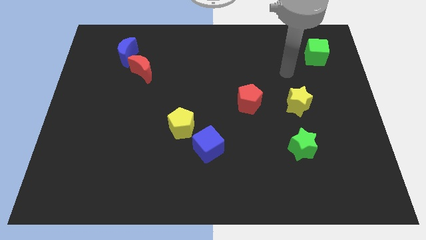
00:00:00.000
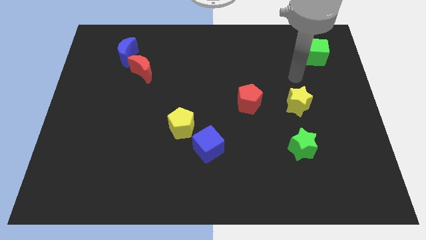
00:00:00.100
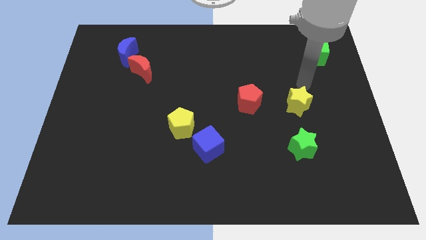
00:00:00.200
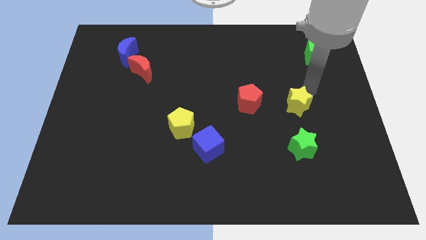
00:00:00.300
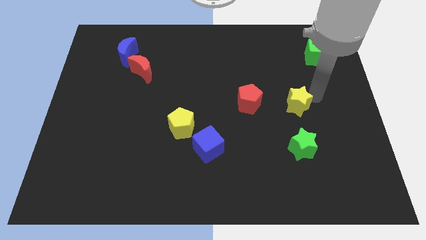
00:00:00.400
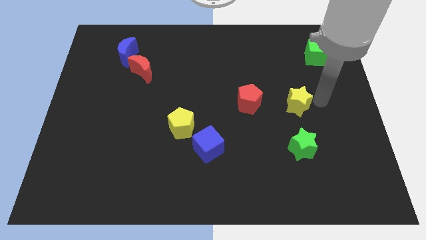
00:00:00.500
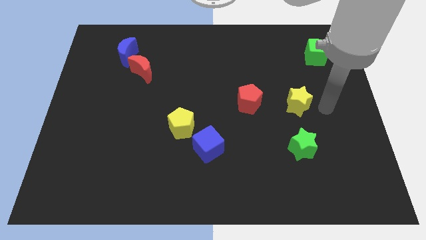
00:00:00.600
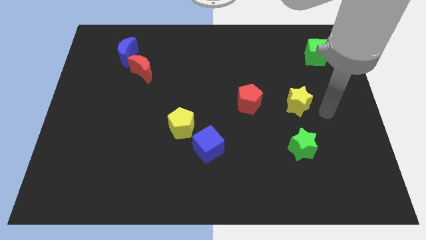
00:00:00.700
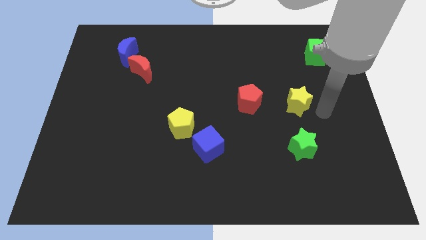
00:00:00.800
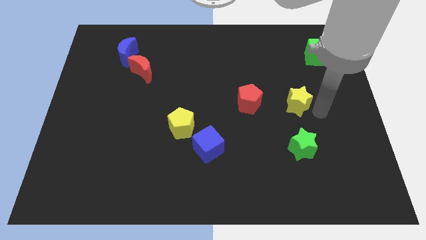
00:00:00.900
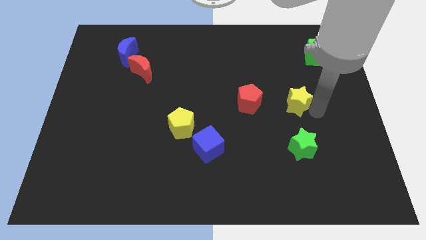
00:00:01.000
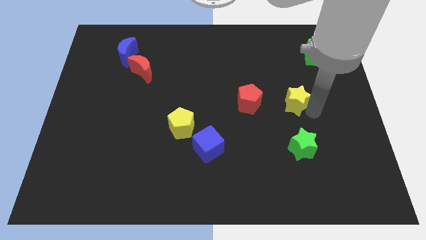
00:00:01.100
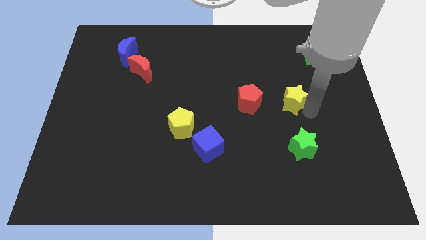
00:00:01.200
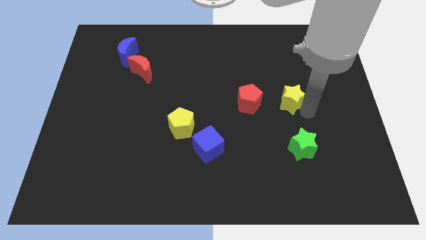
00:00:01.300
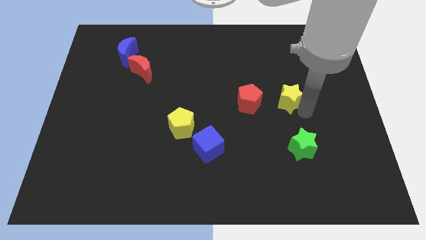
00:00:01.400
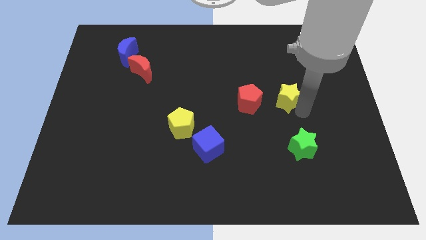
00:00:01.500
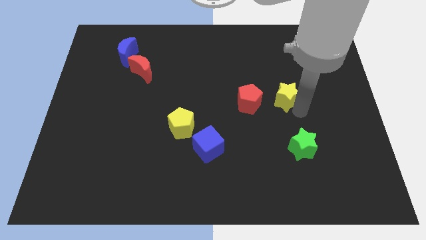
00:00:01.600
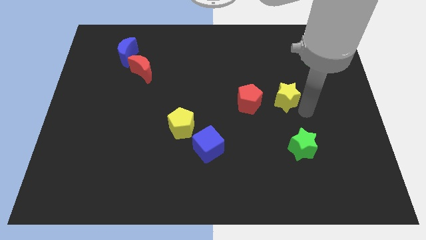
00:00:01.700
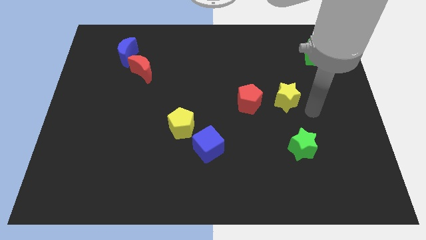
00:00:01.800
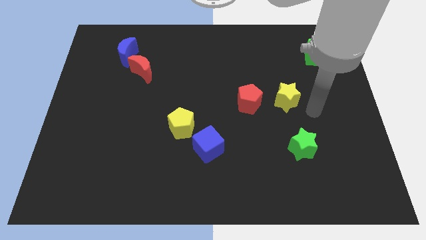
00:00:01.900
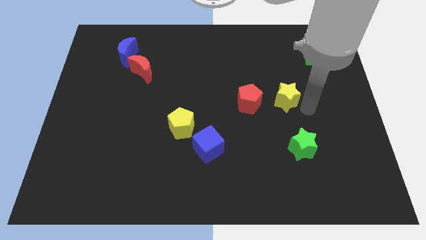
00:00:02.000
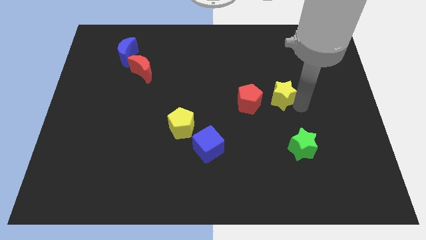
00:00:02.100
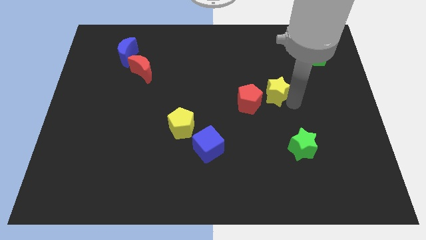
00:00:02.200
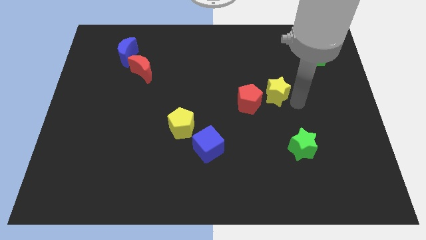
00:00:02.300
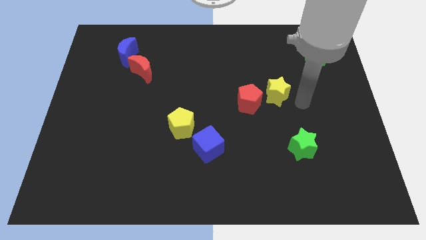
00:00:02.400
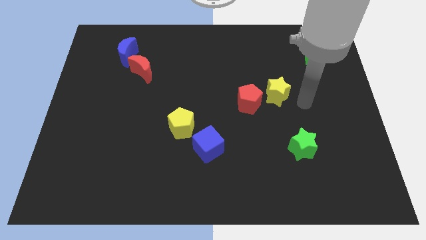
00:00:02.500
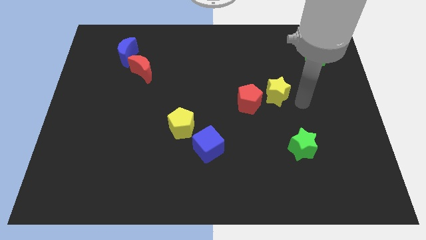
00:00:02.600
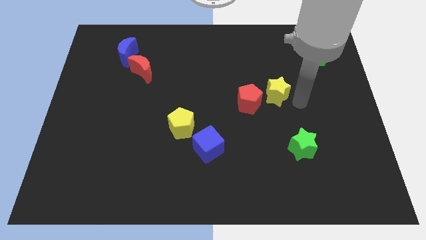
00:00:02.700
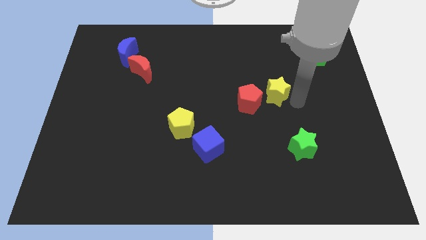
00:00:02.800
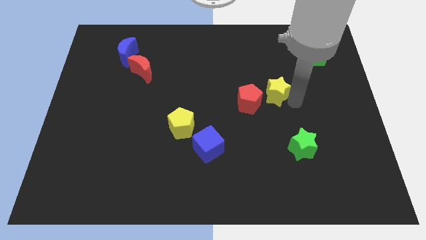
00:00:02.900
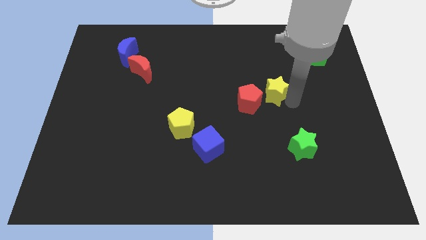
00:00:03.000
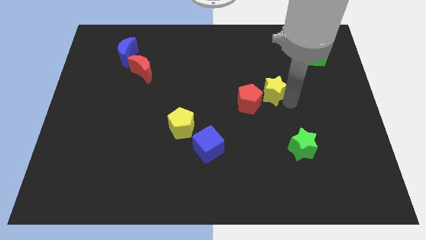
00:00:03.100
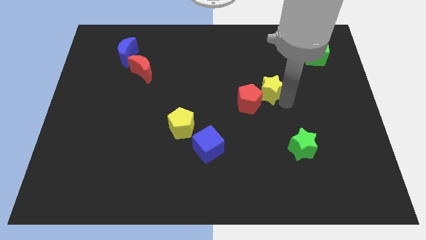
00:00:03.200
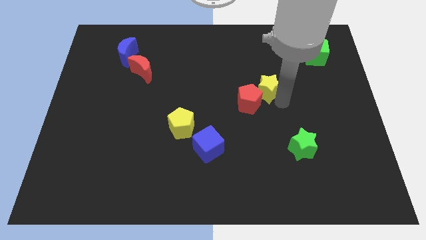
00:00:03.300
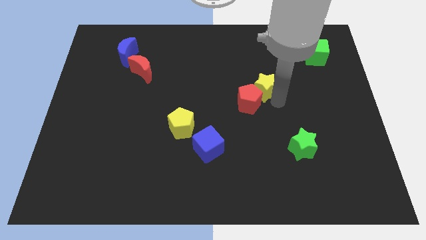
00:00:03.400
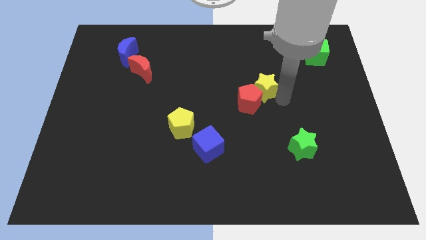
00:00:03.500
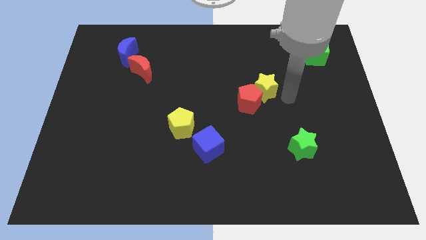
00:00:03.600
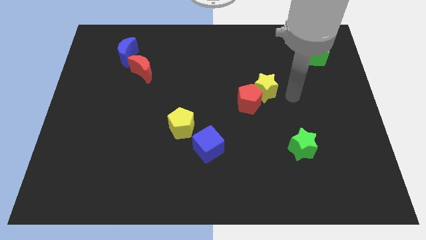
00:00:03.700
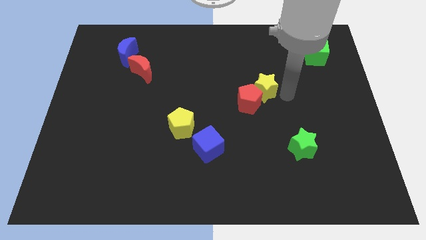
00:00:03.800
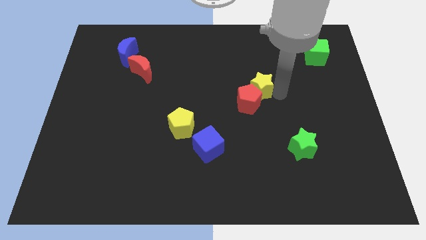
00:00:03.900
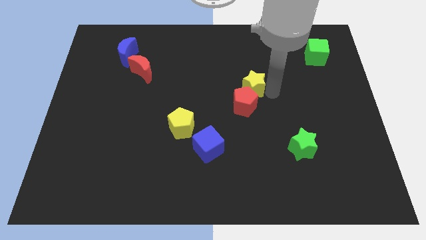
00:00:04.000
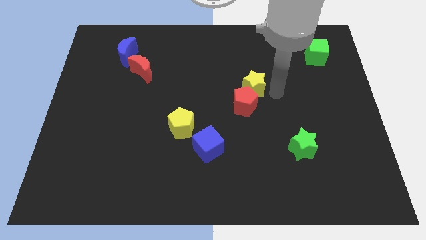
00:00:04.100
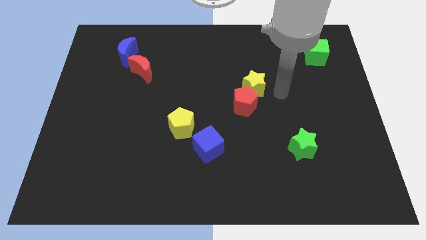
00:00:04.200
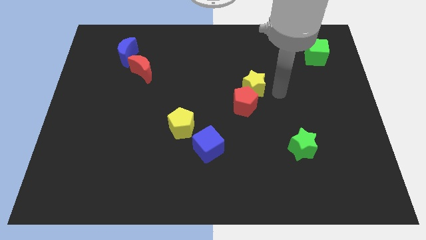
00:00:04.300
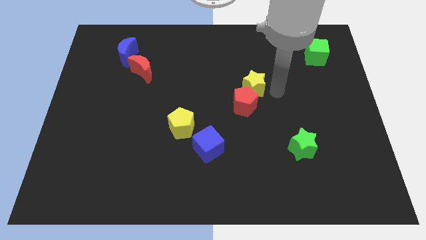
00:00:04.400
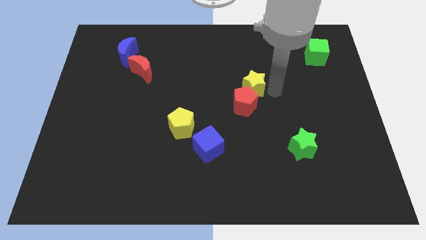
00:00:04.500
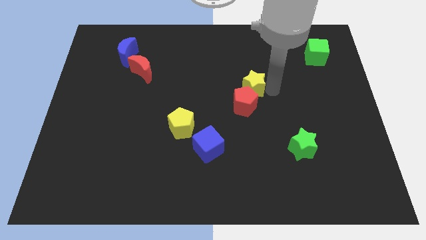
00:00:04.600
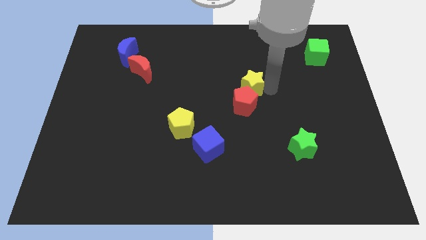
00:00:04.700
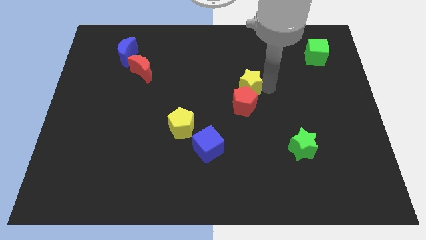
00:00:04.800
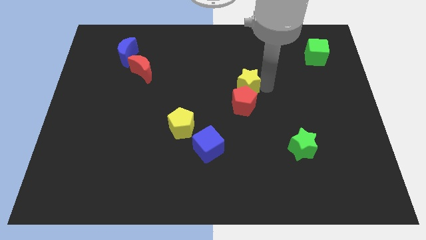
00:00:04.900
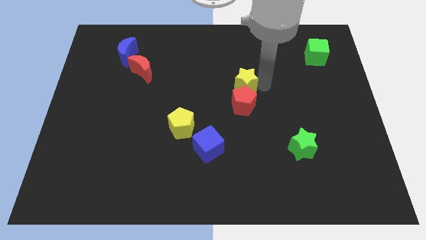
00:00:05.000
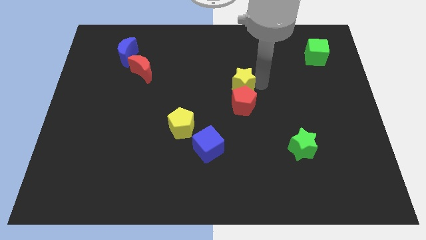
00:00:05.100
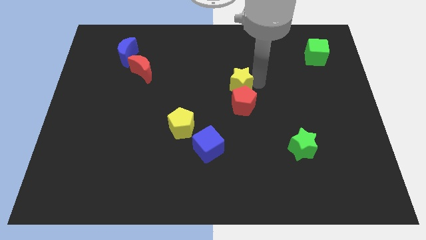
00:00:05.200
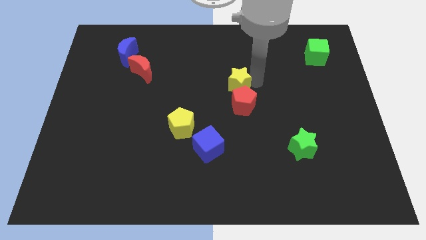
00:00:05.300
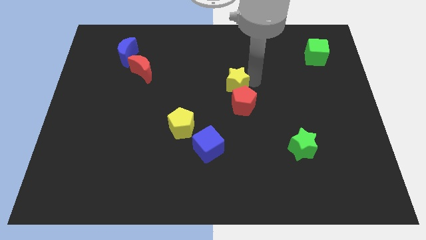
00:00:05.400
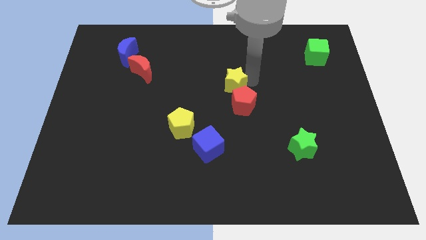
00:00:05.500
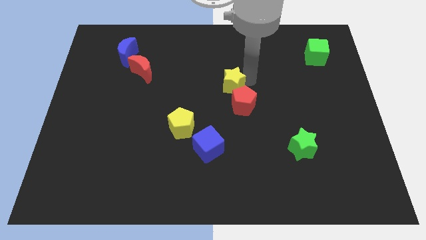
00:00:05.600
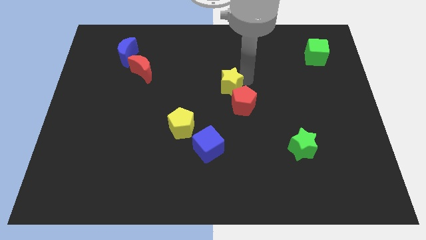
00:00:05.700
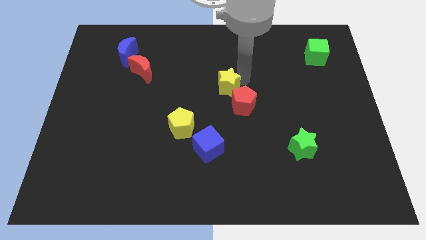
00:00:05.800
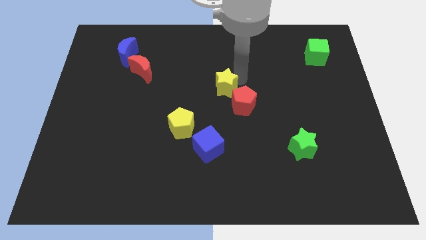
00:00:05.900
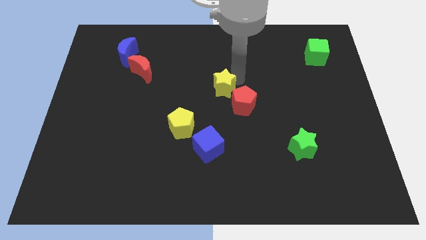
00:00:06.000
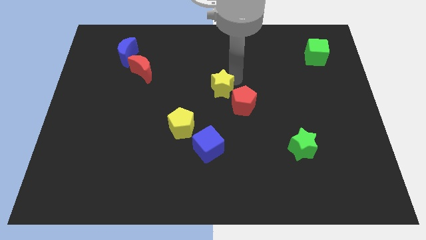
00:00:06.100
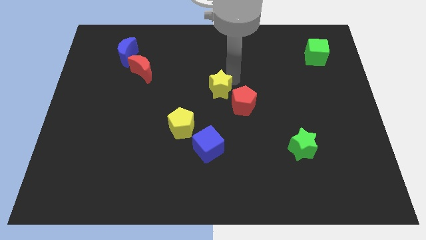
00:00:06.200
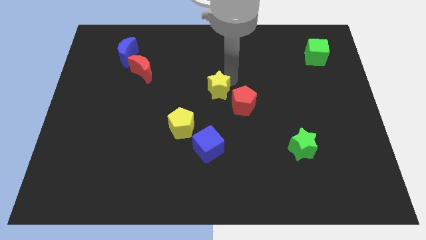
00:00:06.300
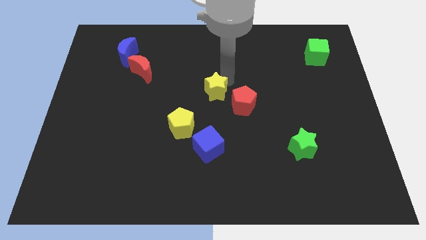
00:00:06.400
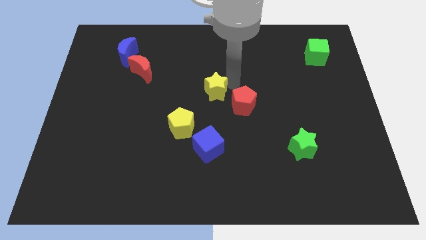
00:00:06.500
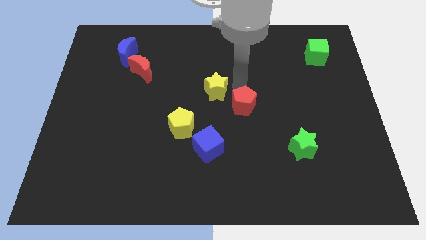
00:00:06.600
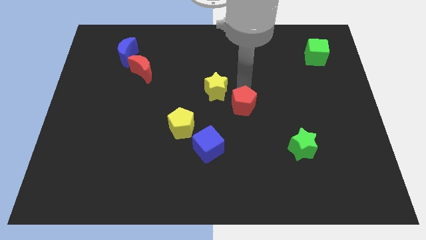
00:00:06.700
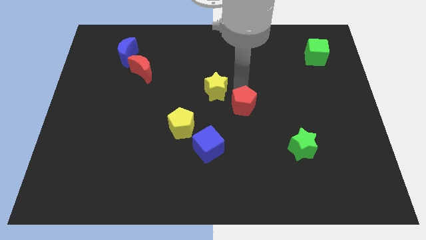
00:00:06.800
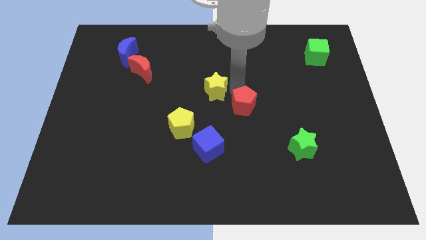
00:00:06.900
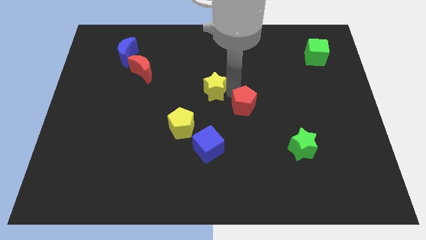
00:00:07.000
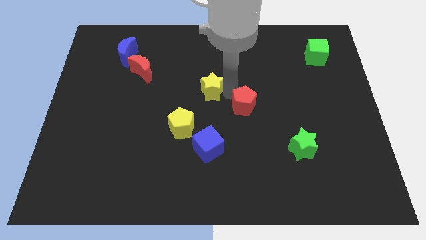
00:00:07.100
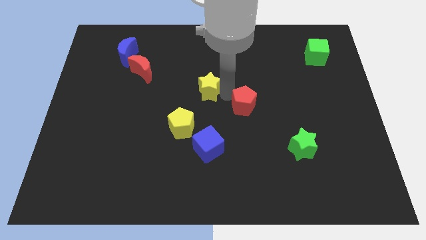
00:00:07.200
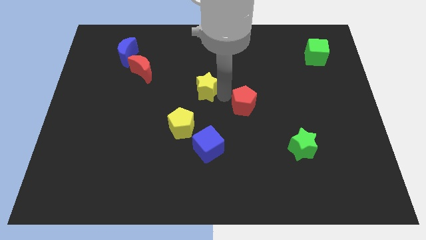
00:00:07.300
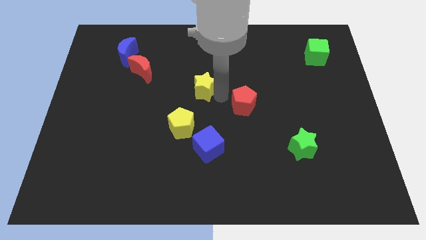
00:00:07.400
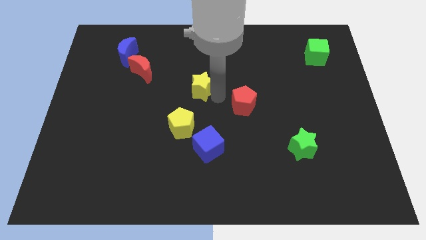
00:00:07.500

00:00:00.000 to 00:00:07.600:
push the yellow star to the top side of the yellow pentagon
